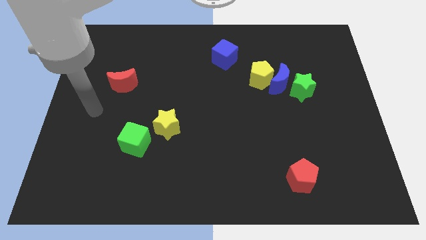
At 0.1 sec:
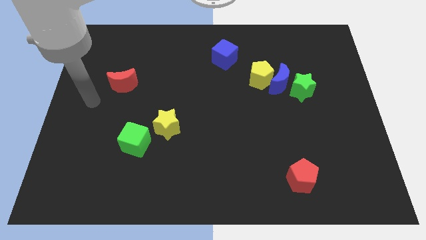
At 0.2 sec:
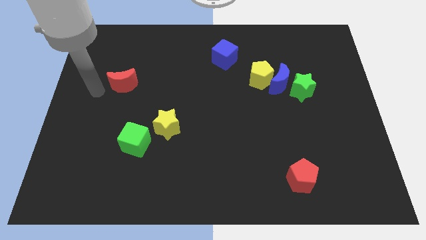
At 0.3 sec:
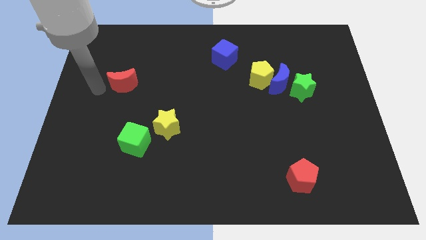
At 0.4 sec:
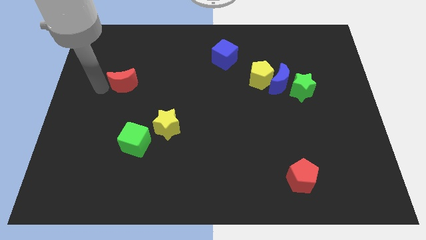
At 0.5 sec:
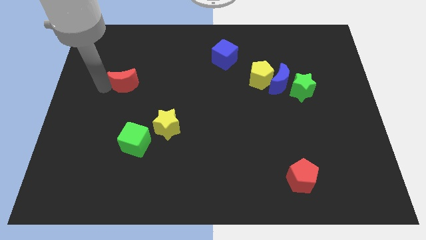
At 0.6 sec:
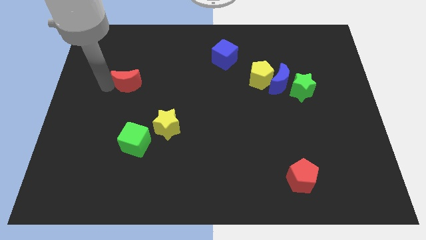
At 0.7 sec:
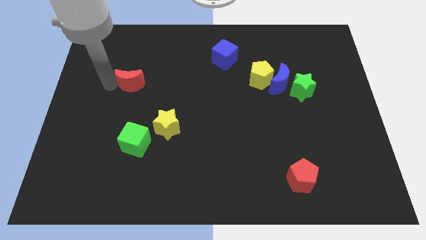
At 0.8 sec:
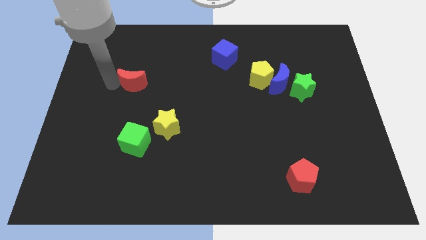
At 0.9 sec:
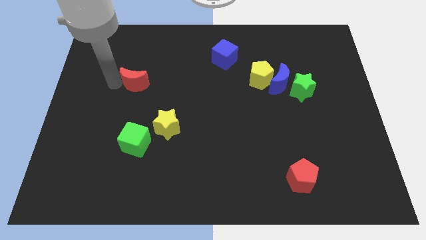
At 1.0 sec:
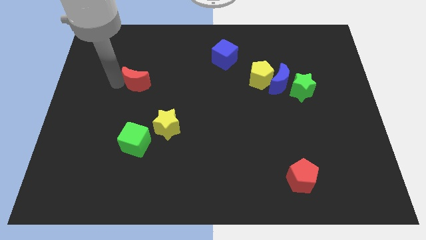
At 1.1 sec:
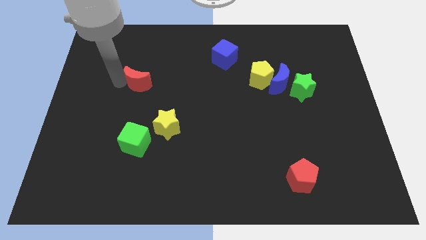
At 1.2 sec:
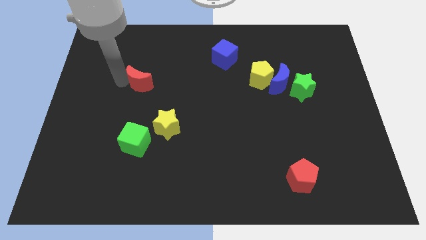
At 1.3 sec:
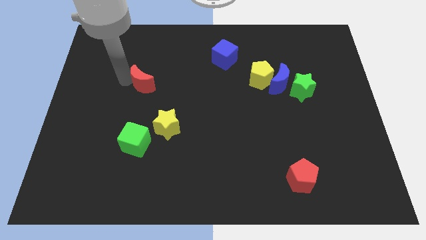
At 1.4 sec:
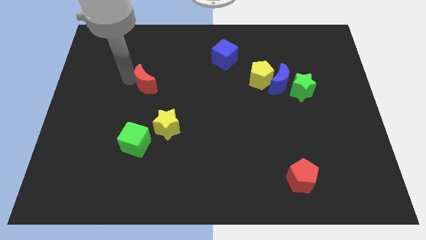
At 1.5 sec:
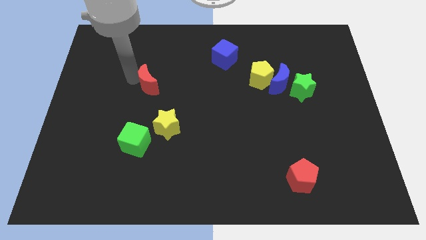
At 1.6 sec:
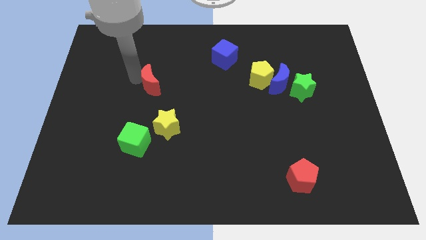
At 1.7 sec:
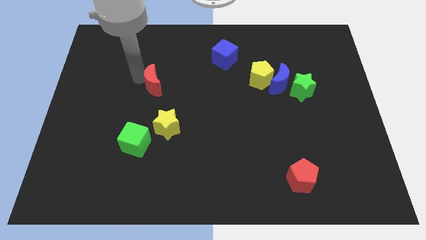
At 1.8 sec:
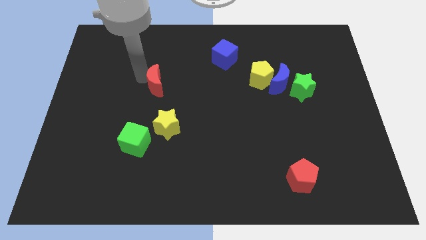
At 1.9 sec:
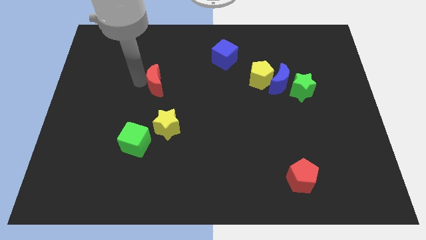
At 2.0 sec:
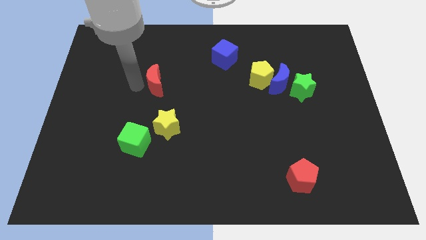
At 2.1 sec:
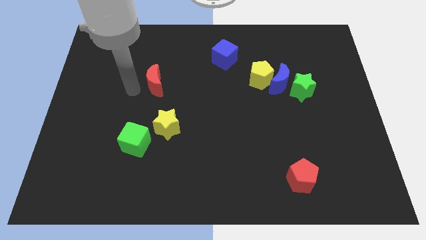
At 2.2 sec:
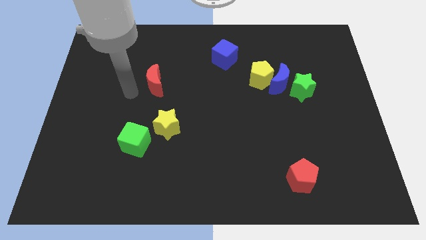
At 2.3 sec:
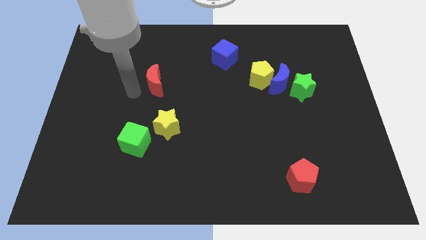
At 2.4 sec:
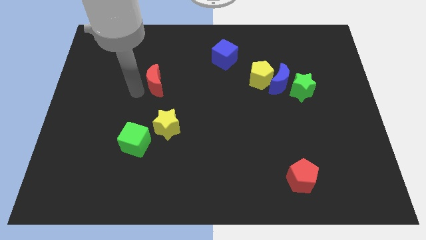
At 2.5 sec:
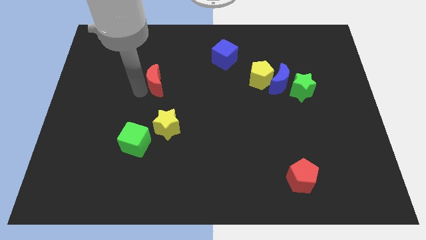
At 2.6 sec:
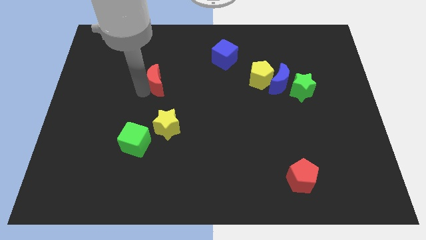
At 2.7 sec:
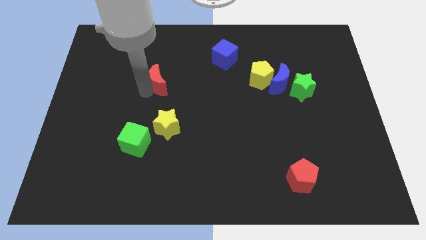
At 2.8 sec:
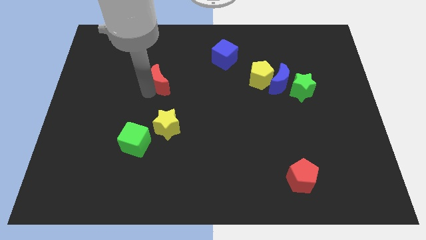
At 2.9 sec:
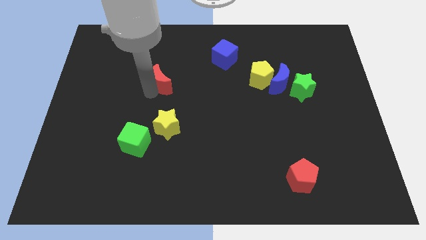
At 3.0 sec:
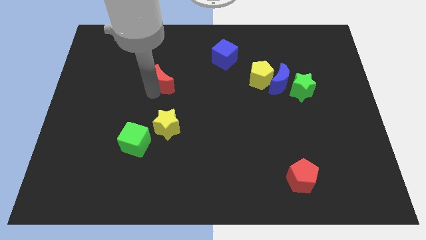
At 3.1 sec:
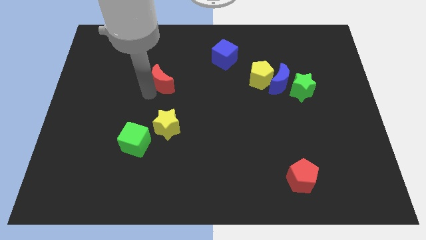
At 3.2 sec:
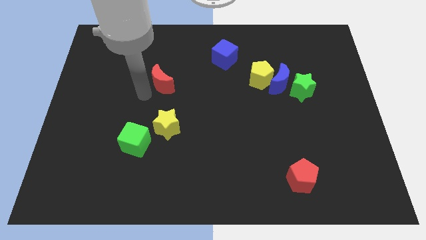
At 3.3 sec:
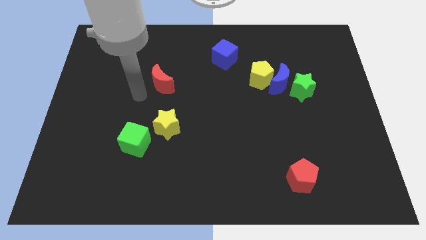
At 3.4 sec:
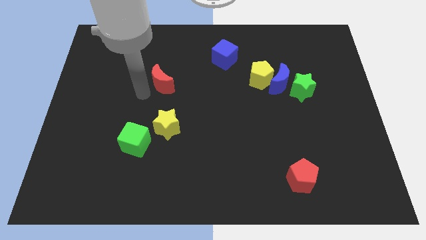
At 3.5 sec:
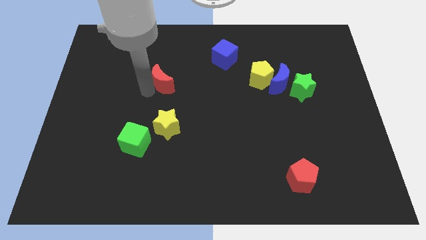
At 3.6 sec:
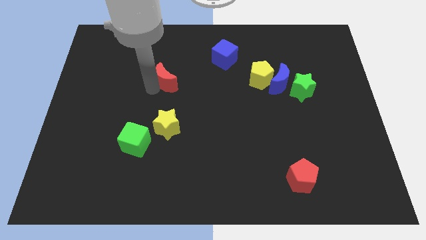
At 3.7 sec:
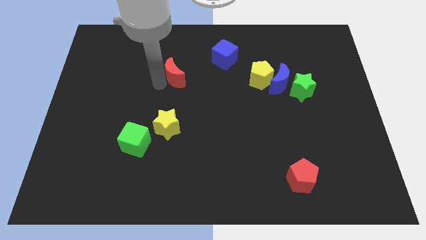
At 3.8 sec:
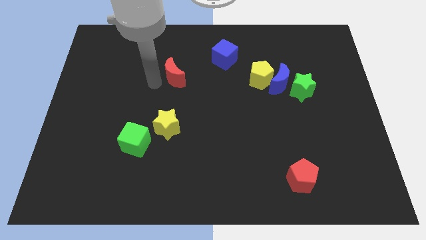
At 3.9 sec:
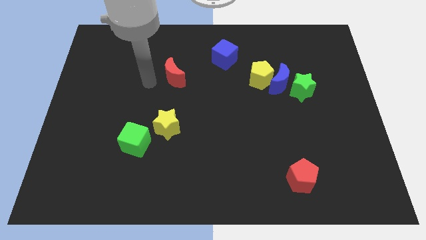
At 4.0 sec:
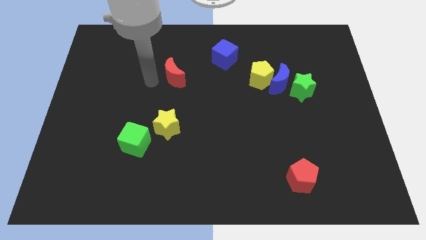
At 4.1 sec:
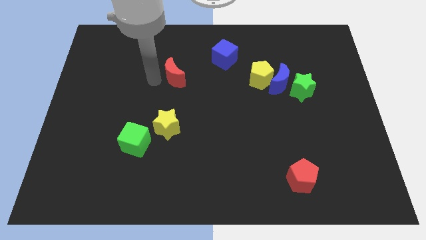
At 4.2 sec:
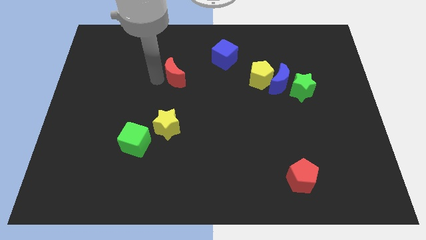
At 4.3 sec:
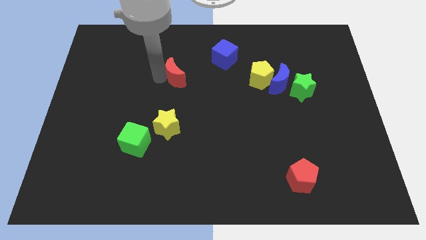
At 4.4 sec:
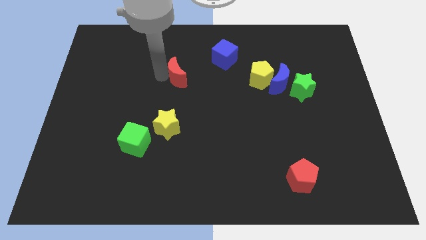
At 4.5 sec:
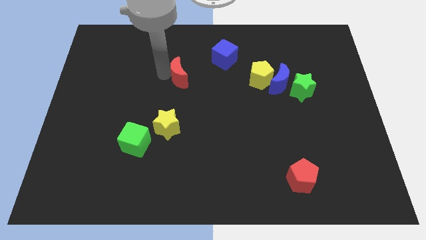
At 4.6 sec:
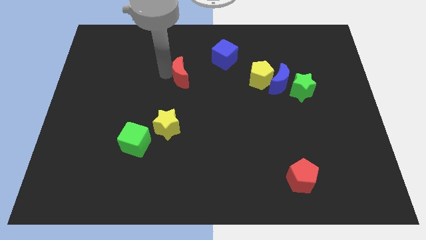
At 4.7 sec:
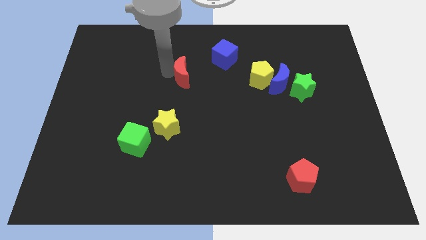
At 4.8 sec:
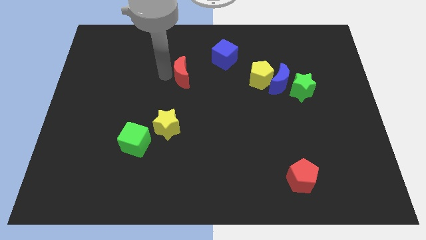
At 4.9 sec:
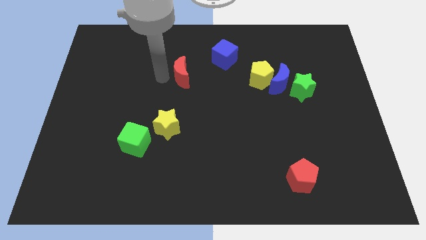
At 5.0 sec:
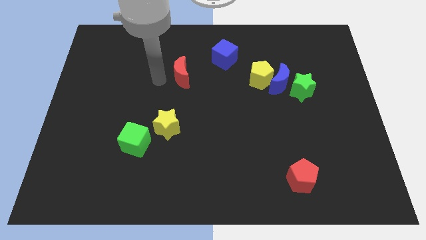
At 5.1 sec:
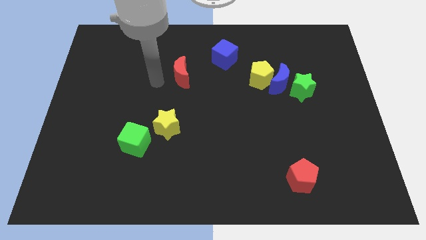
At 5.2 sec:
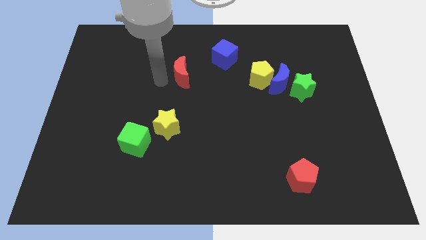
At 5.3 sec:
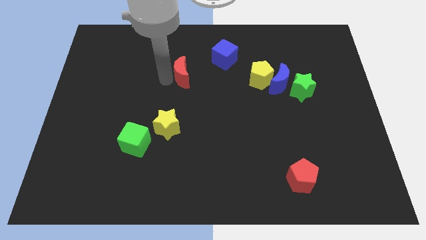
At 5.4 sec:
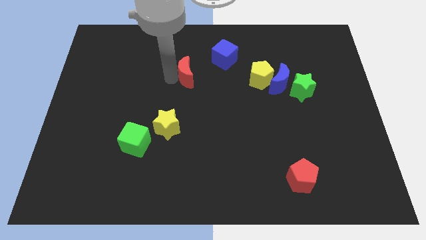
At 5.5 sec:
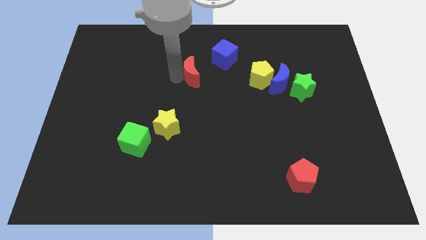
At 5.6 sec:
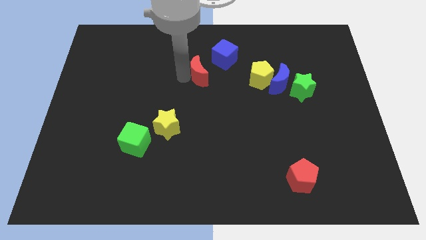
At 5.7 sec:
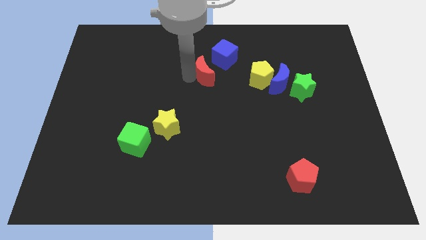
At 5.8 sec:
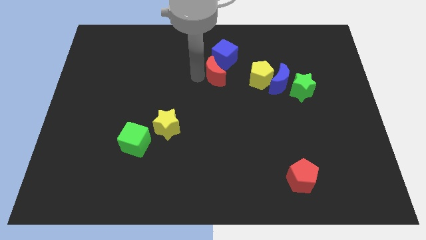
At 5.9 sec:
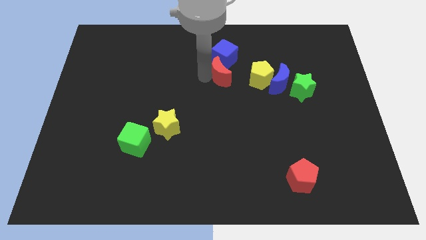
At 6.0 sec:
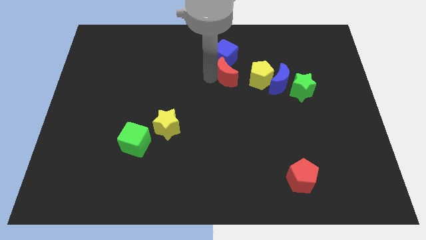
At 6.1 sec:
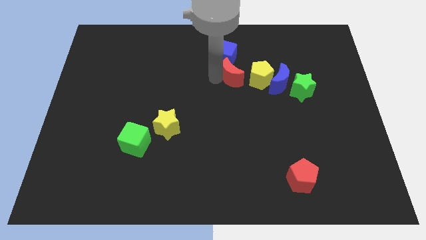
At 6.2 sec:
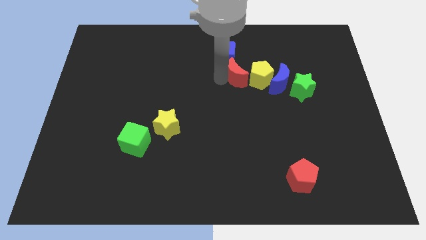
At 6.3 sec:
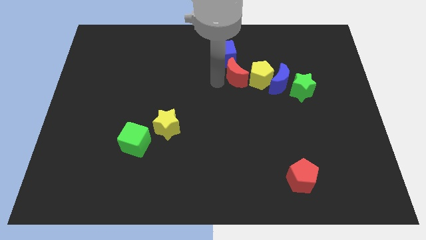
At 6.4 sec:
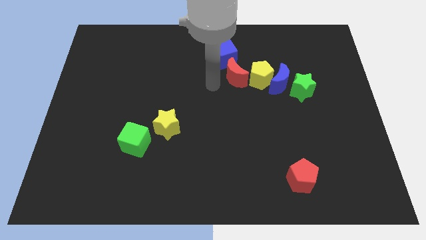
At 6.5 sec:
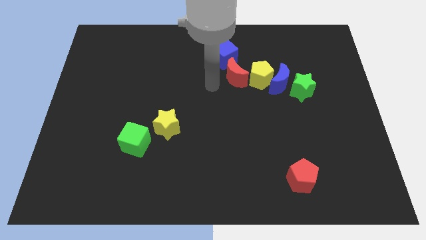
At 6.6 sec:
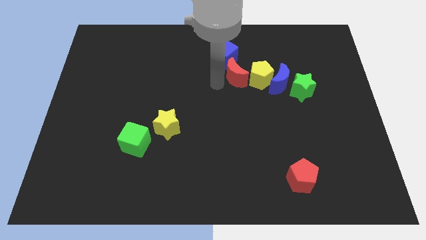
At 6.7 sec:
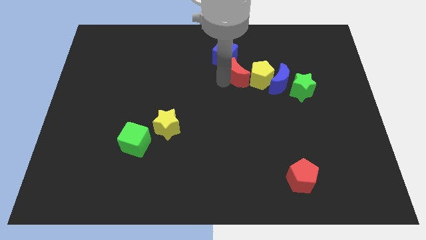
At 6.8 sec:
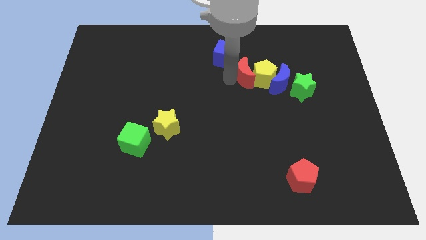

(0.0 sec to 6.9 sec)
slide the red moon to the top left of the blue moon

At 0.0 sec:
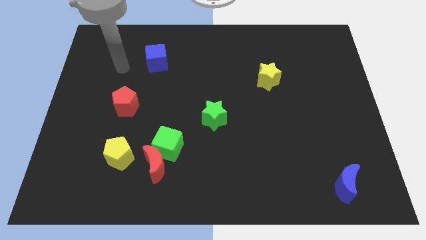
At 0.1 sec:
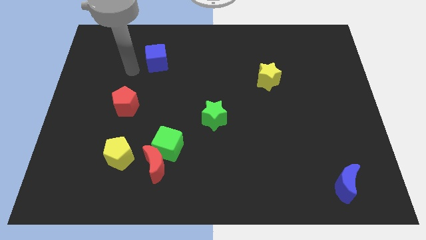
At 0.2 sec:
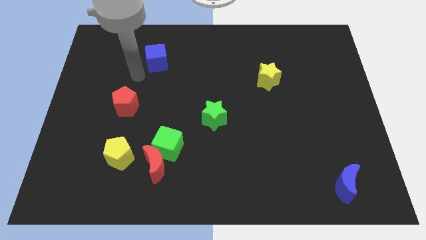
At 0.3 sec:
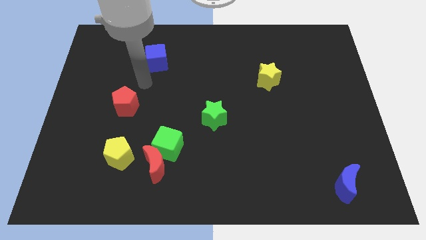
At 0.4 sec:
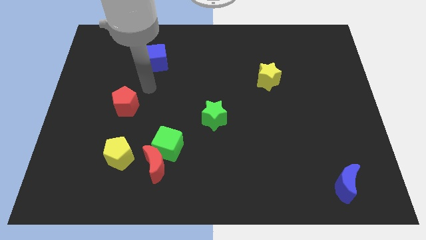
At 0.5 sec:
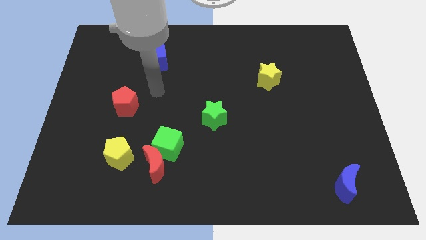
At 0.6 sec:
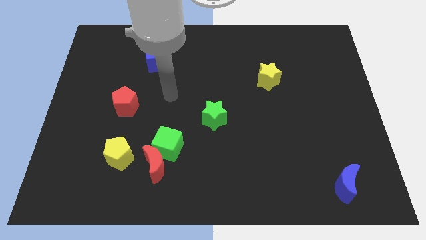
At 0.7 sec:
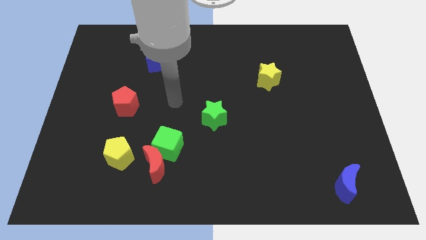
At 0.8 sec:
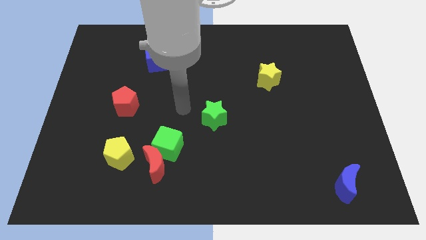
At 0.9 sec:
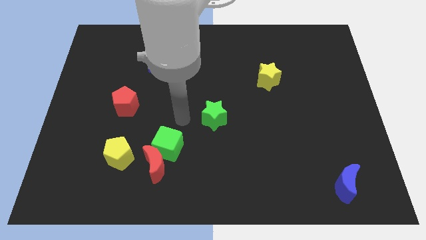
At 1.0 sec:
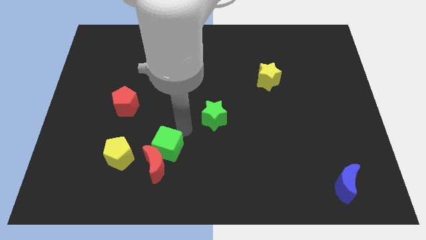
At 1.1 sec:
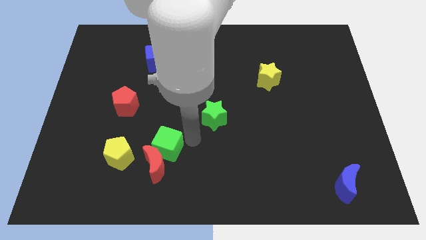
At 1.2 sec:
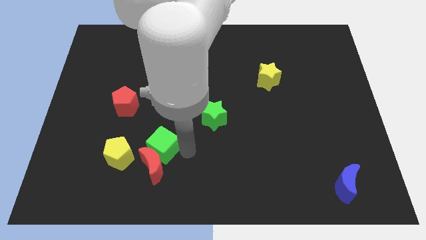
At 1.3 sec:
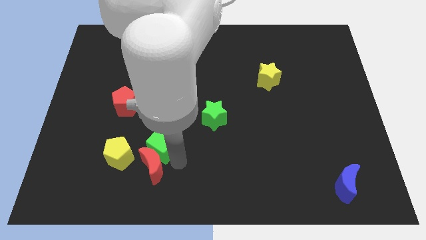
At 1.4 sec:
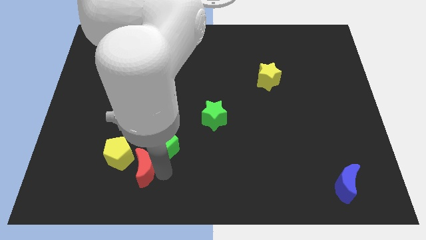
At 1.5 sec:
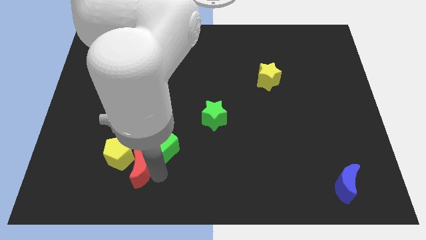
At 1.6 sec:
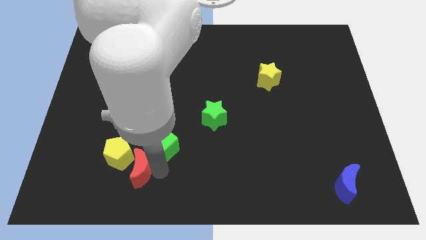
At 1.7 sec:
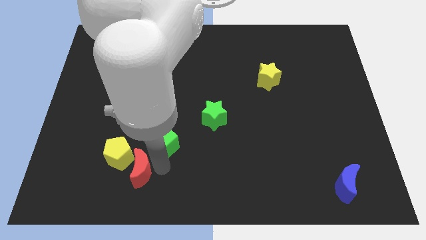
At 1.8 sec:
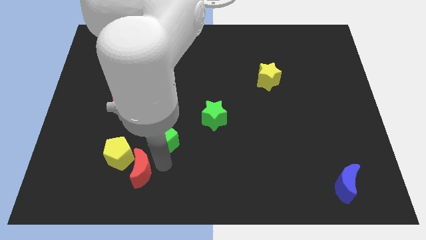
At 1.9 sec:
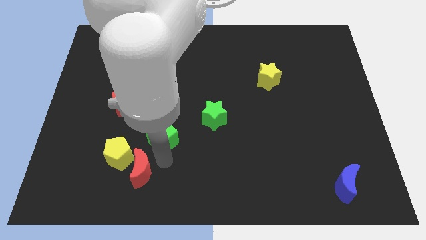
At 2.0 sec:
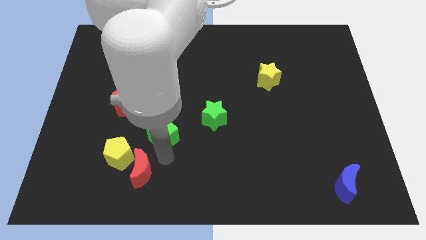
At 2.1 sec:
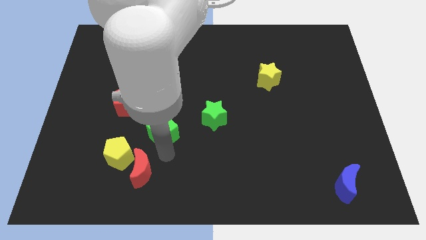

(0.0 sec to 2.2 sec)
slide the green cube just left of the green star
